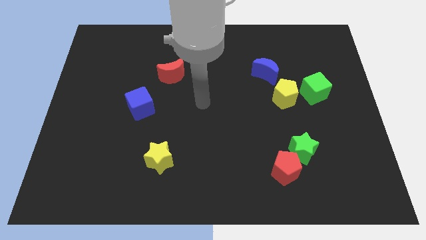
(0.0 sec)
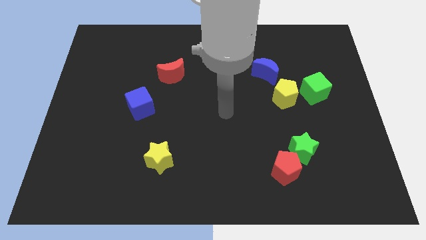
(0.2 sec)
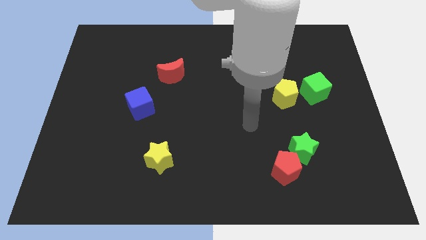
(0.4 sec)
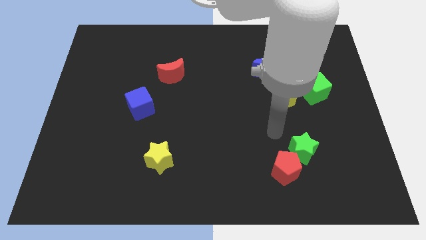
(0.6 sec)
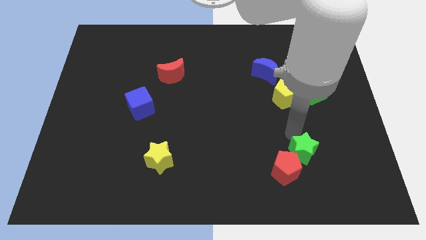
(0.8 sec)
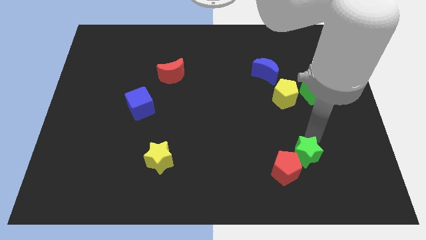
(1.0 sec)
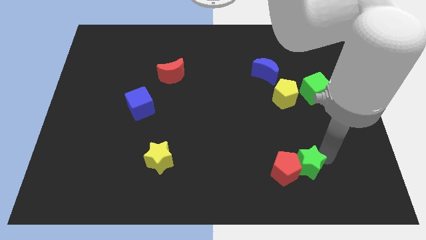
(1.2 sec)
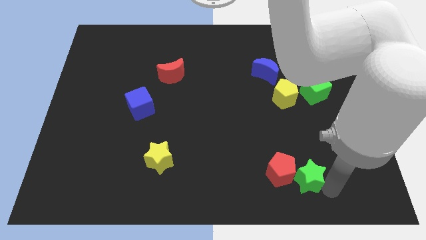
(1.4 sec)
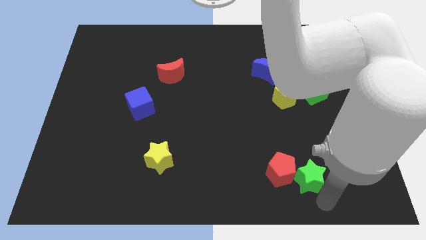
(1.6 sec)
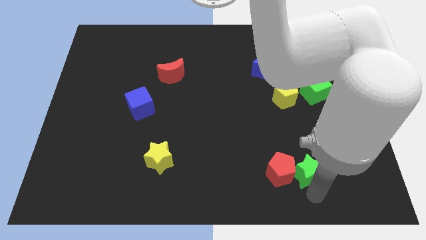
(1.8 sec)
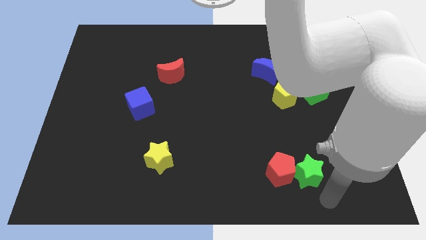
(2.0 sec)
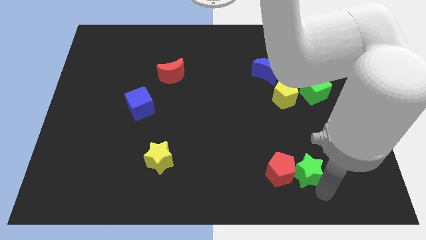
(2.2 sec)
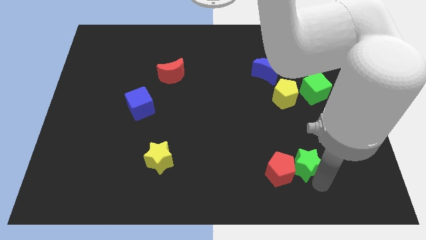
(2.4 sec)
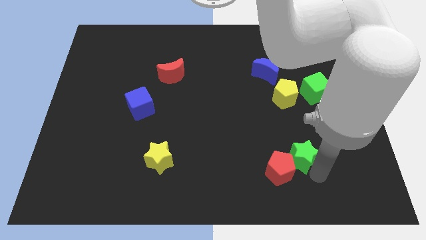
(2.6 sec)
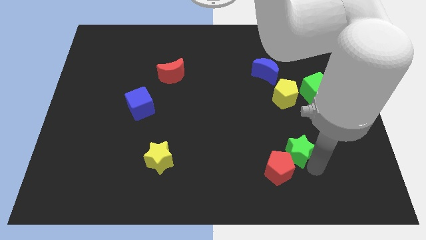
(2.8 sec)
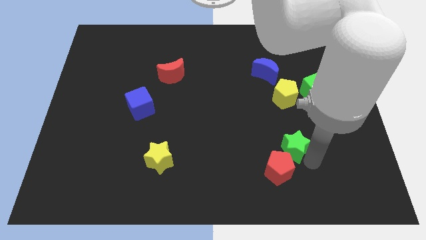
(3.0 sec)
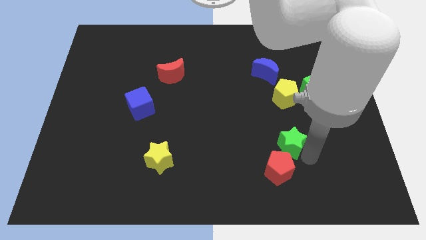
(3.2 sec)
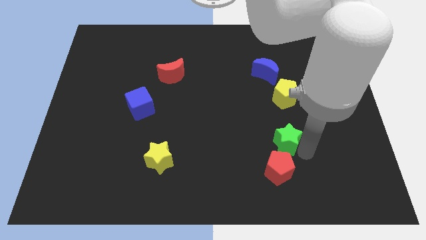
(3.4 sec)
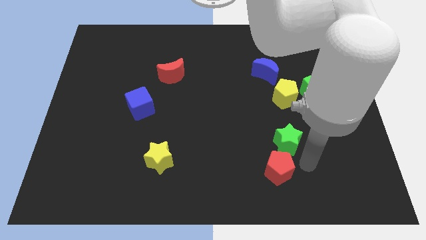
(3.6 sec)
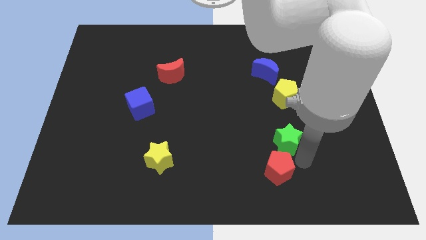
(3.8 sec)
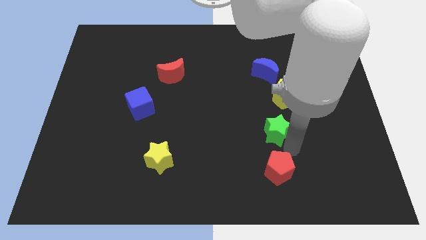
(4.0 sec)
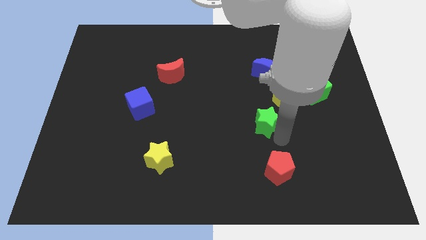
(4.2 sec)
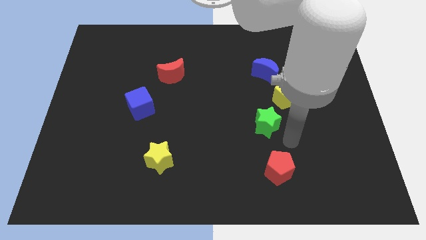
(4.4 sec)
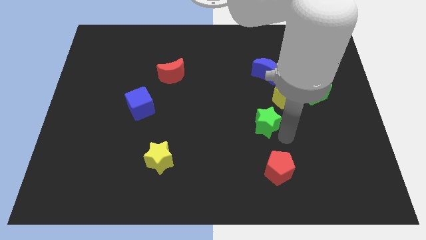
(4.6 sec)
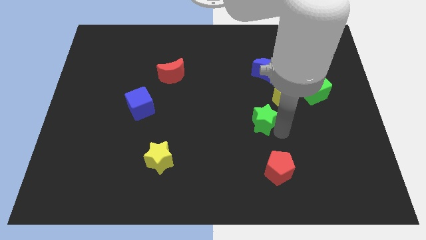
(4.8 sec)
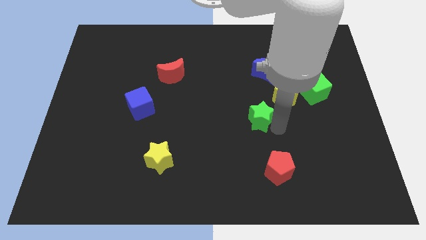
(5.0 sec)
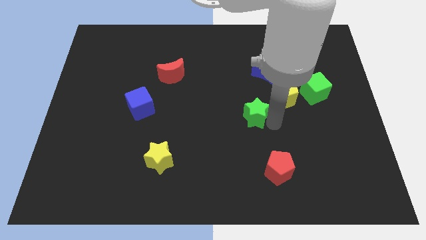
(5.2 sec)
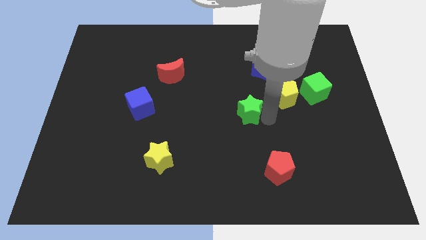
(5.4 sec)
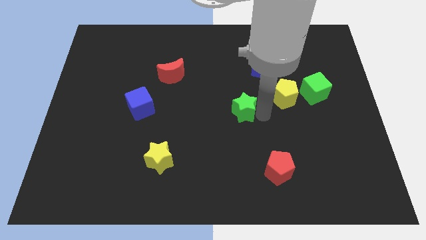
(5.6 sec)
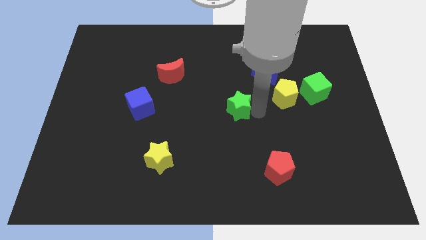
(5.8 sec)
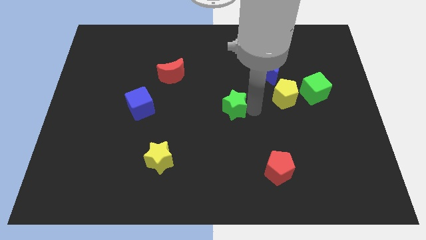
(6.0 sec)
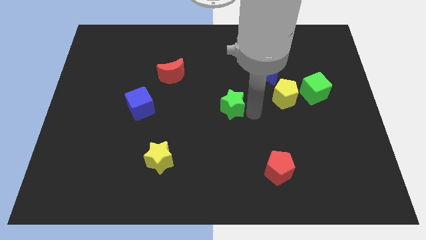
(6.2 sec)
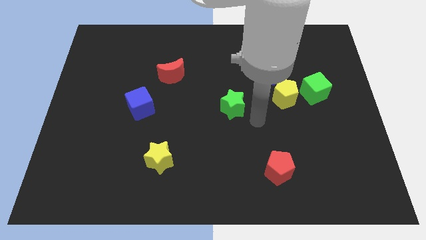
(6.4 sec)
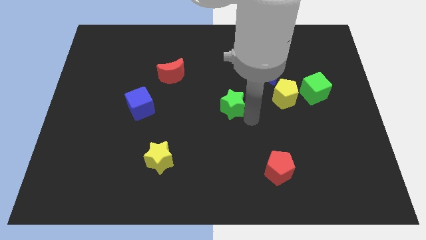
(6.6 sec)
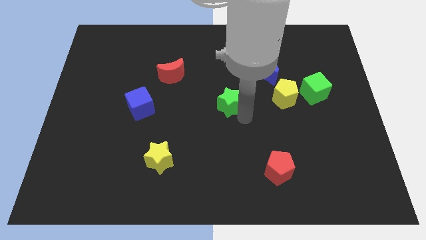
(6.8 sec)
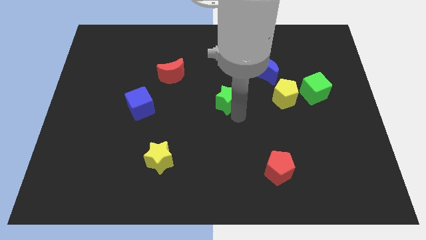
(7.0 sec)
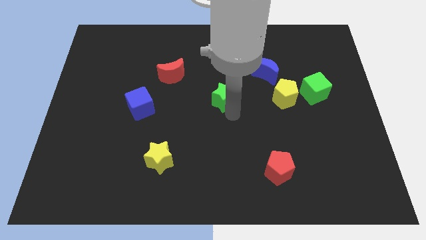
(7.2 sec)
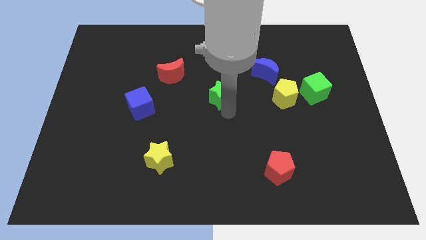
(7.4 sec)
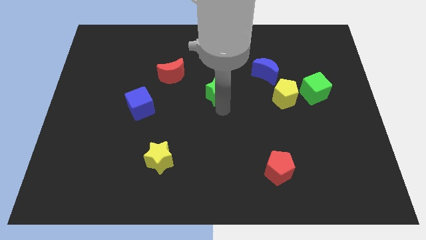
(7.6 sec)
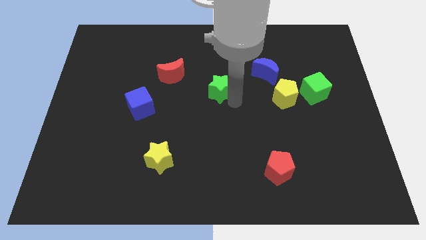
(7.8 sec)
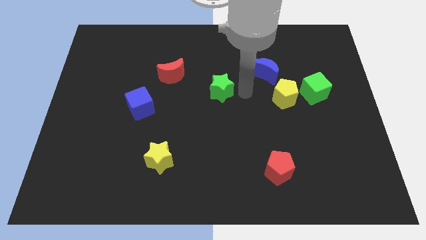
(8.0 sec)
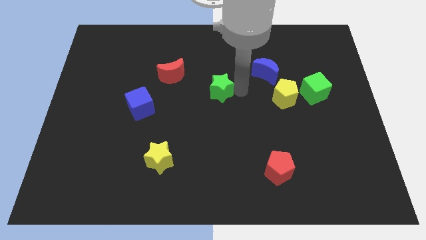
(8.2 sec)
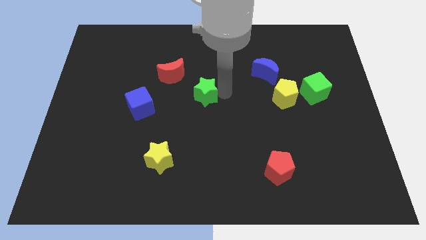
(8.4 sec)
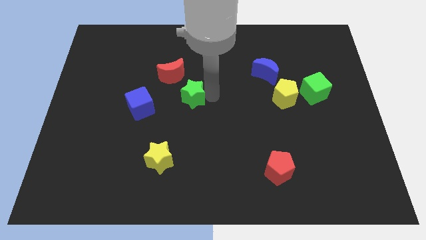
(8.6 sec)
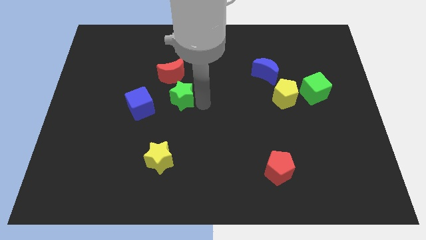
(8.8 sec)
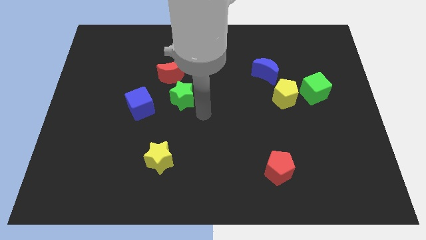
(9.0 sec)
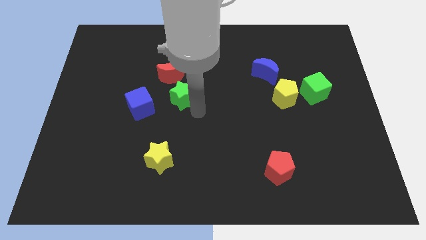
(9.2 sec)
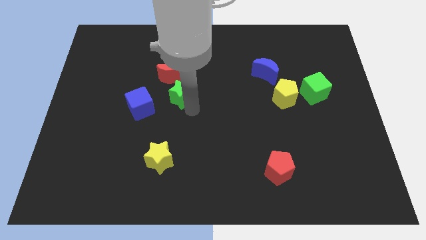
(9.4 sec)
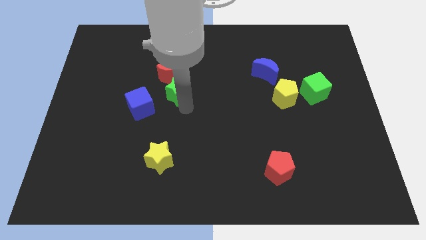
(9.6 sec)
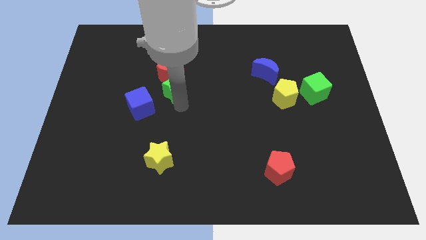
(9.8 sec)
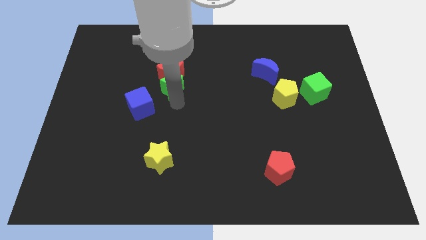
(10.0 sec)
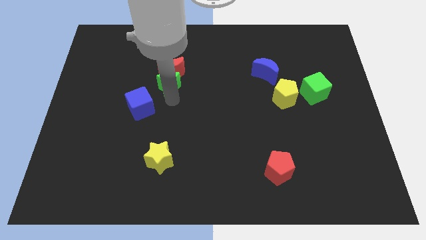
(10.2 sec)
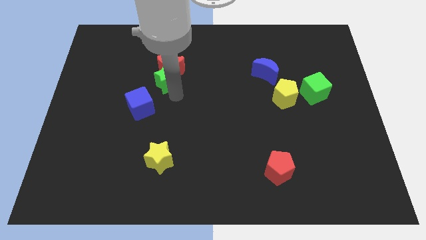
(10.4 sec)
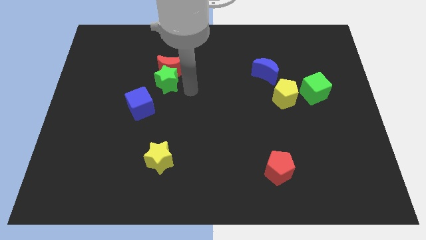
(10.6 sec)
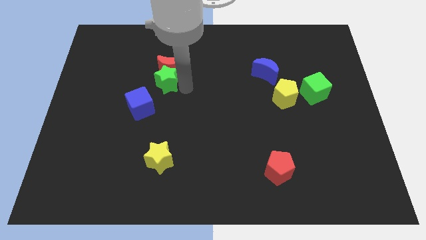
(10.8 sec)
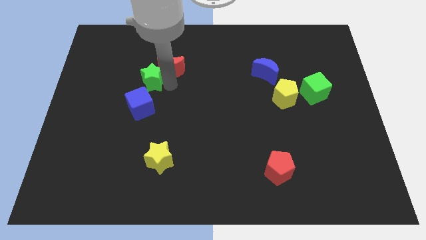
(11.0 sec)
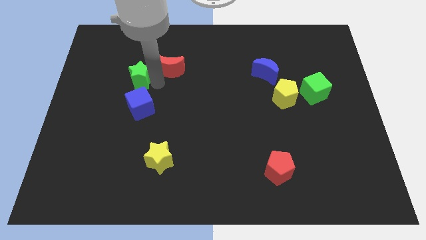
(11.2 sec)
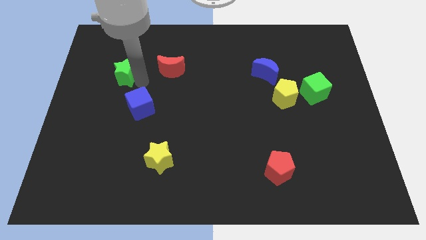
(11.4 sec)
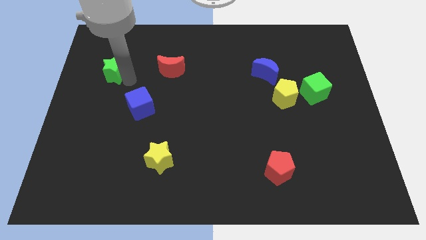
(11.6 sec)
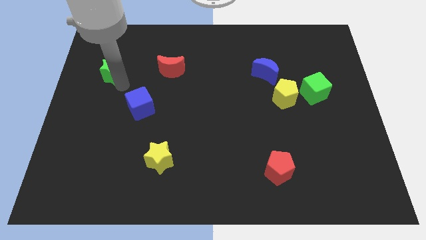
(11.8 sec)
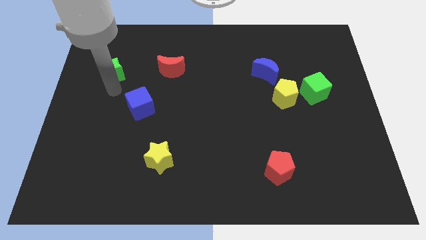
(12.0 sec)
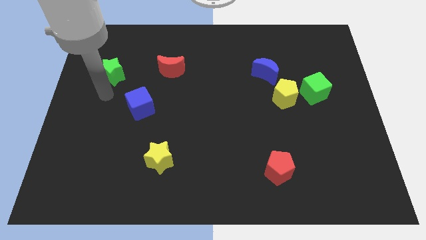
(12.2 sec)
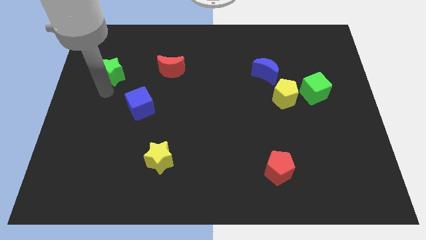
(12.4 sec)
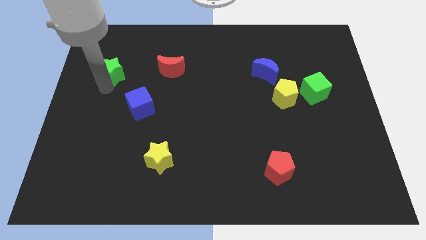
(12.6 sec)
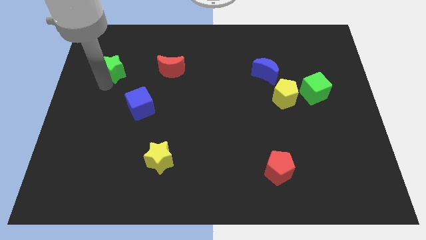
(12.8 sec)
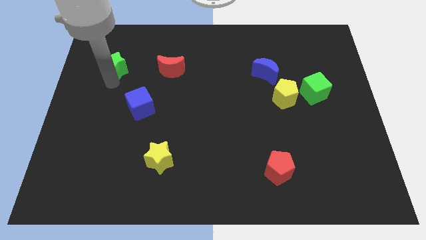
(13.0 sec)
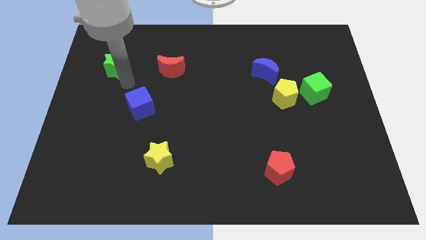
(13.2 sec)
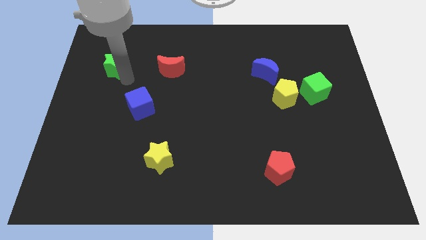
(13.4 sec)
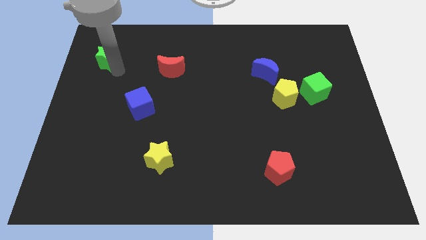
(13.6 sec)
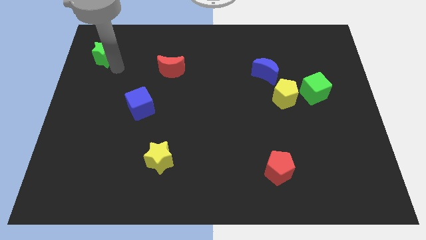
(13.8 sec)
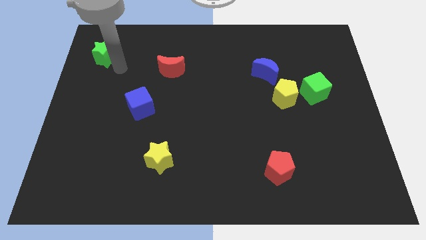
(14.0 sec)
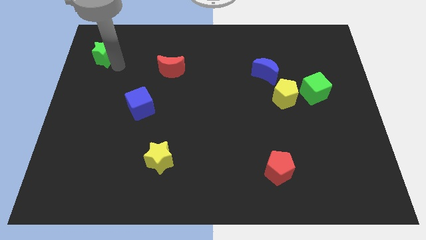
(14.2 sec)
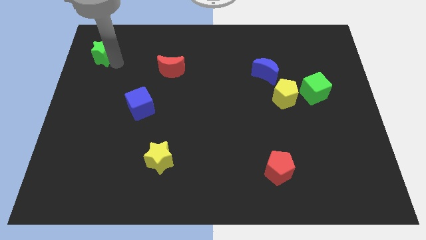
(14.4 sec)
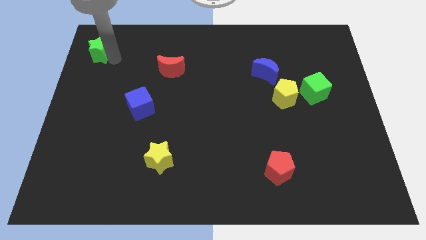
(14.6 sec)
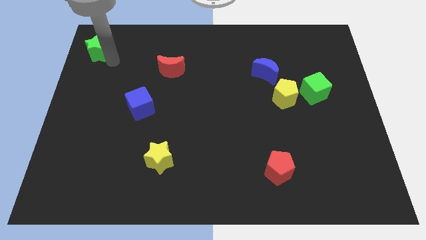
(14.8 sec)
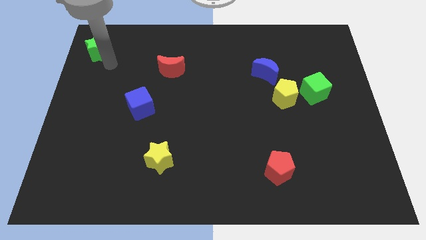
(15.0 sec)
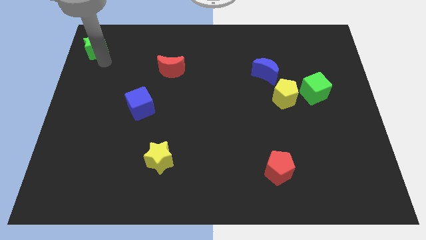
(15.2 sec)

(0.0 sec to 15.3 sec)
slide the green star to the upper left corner
